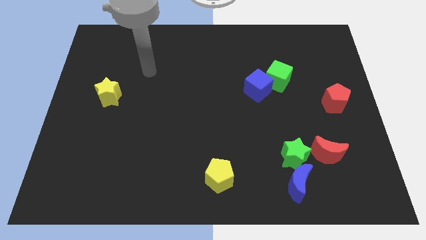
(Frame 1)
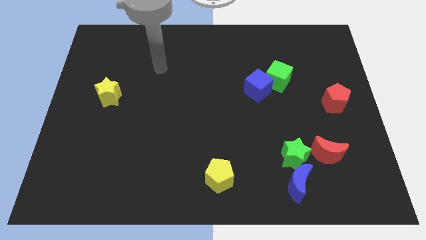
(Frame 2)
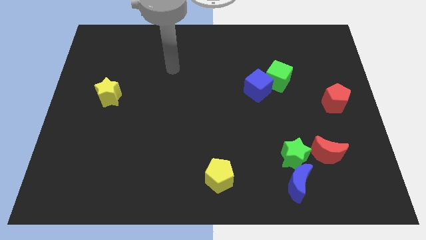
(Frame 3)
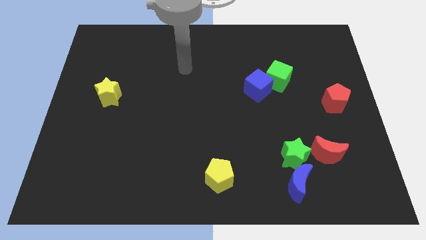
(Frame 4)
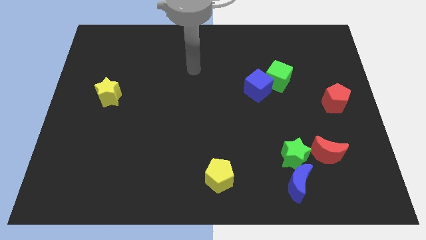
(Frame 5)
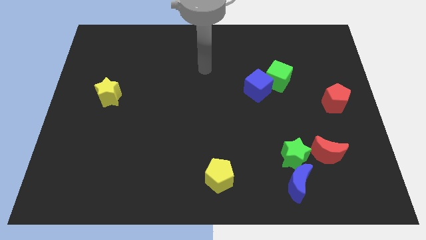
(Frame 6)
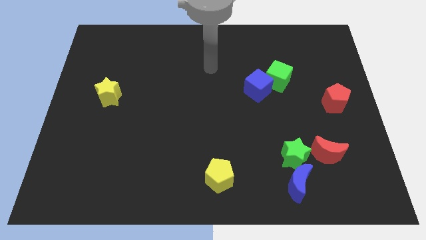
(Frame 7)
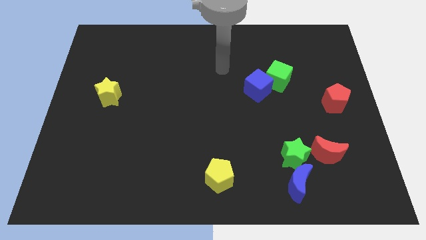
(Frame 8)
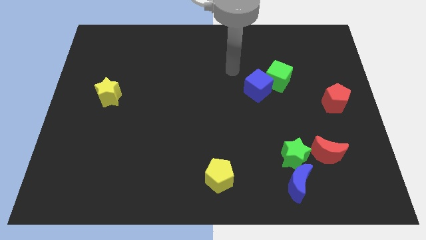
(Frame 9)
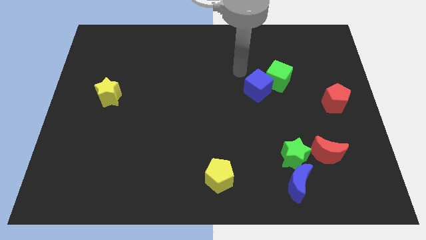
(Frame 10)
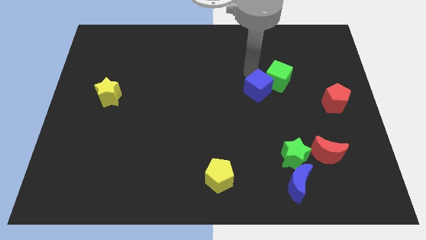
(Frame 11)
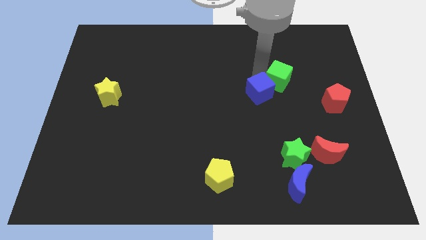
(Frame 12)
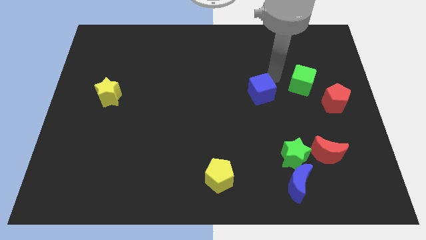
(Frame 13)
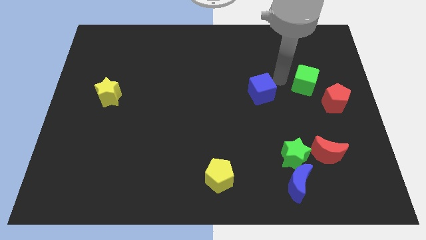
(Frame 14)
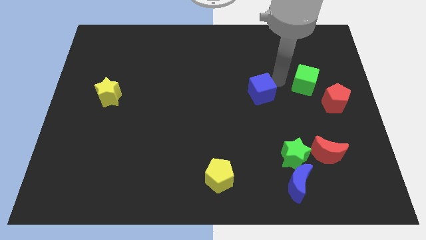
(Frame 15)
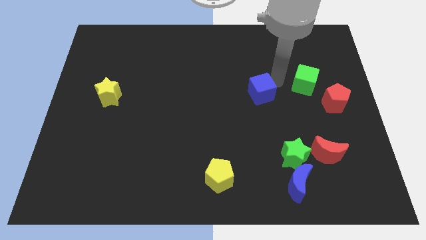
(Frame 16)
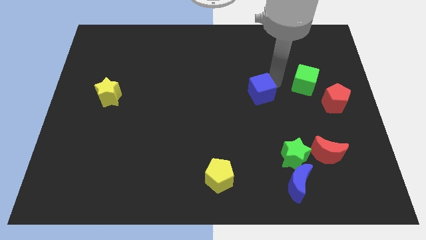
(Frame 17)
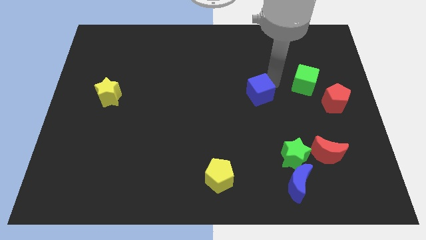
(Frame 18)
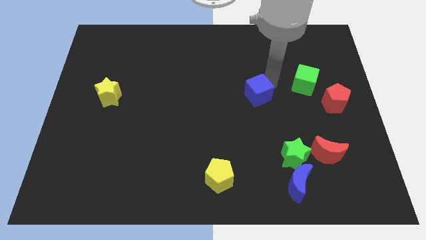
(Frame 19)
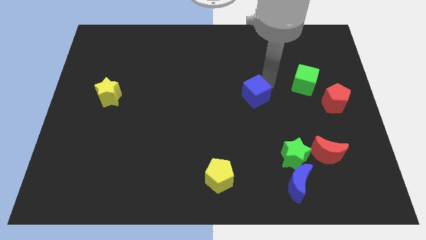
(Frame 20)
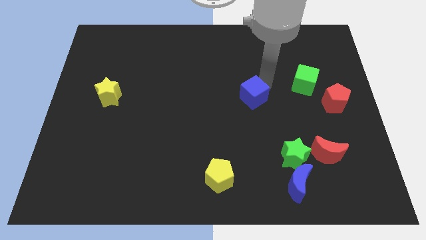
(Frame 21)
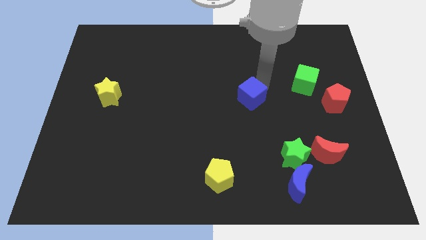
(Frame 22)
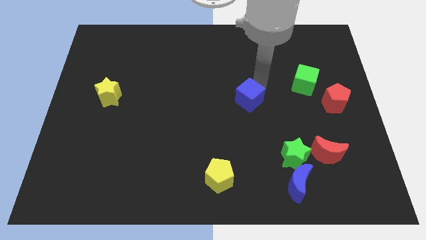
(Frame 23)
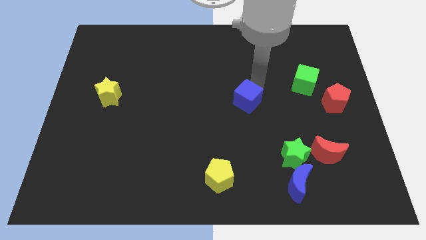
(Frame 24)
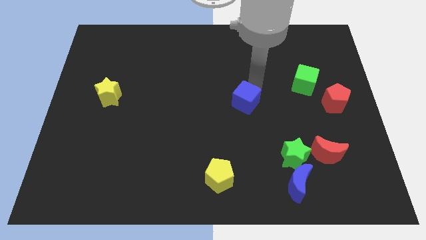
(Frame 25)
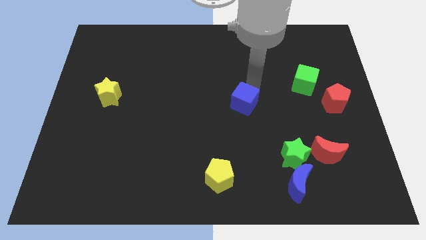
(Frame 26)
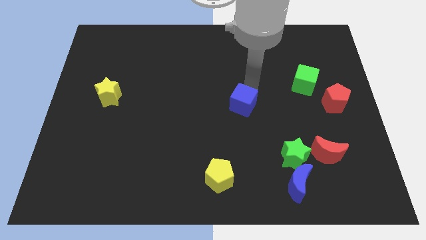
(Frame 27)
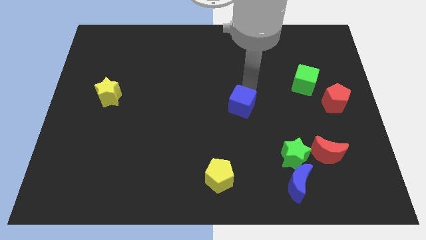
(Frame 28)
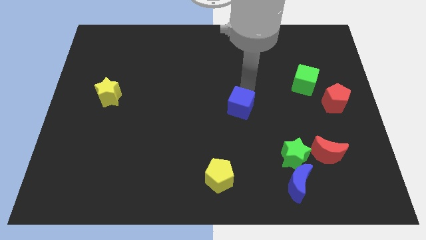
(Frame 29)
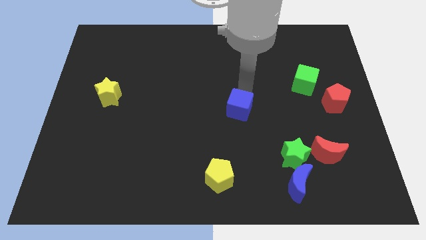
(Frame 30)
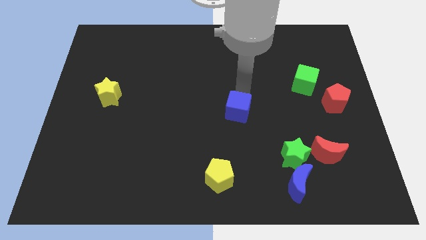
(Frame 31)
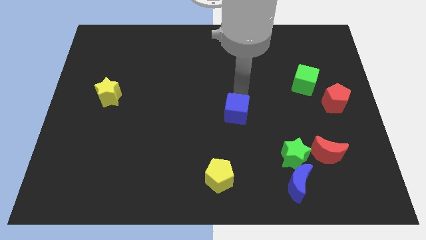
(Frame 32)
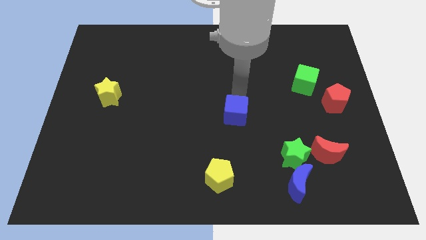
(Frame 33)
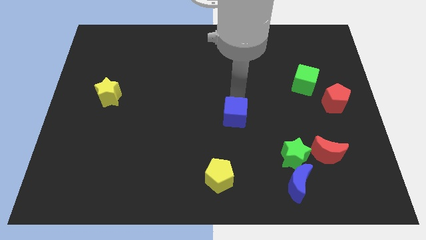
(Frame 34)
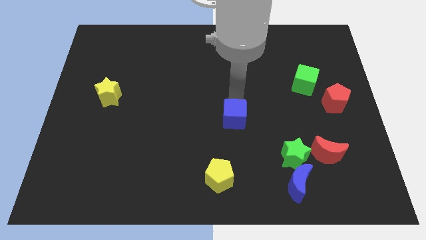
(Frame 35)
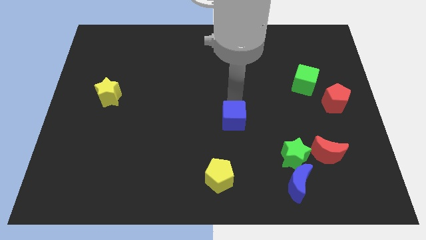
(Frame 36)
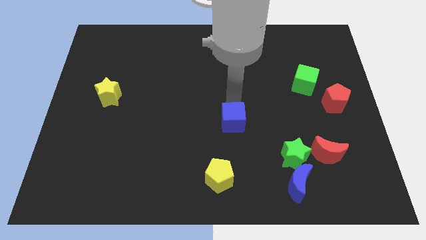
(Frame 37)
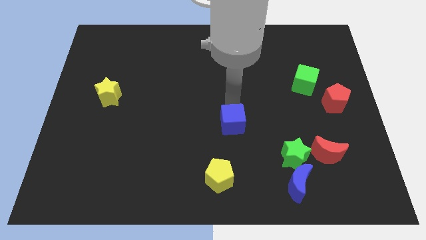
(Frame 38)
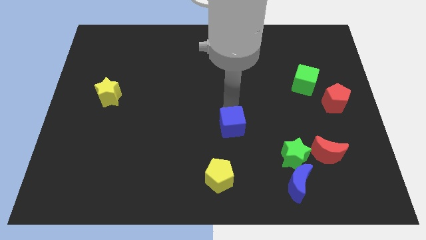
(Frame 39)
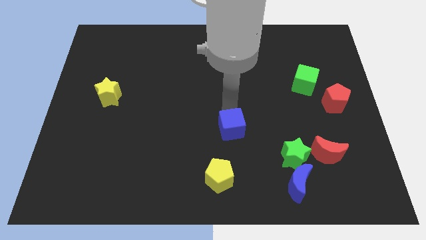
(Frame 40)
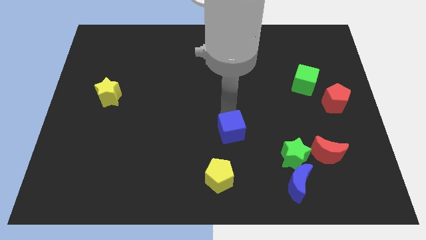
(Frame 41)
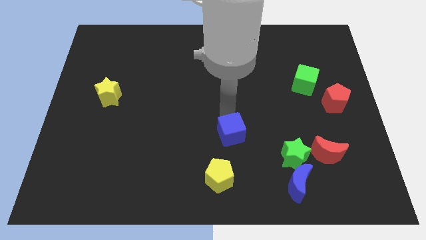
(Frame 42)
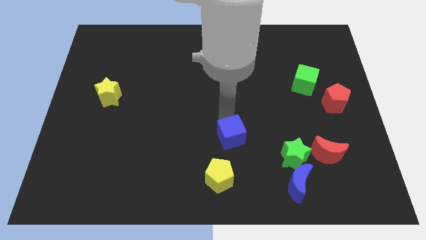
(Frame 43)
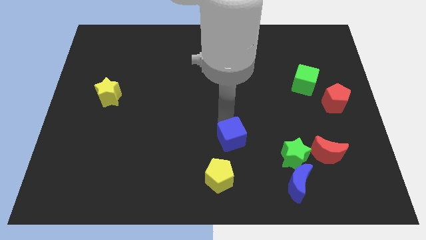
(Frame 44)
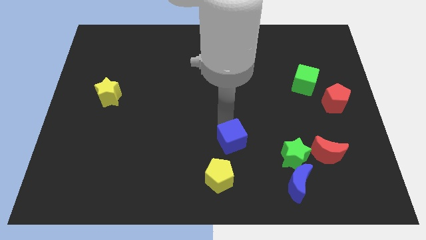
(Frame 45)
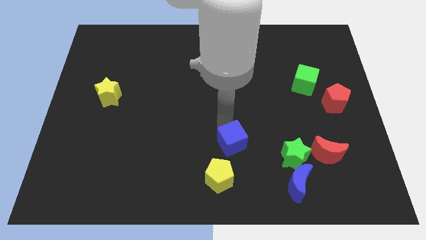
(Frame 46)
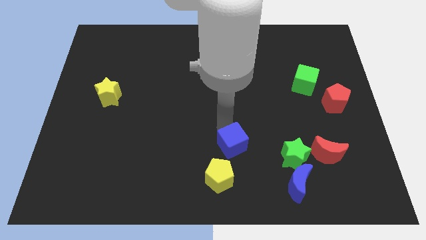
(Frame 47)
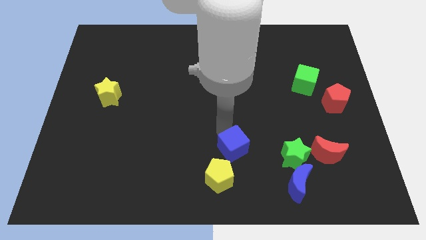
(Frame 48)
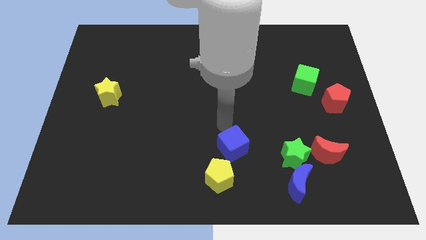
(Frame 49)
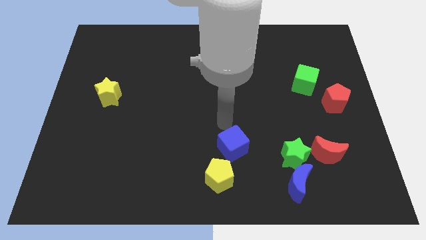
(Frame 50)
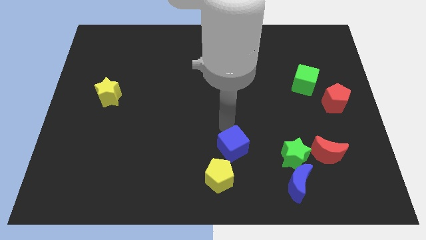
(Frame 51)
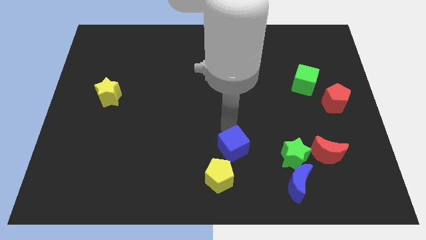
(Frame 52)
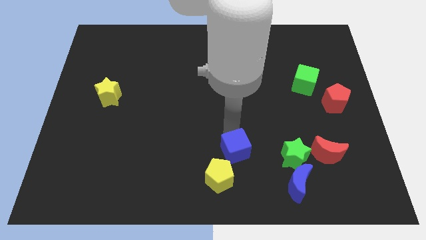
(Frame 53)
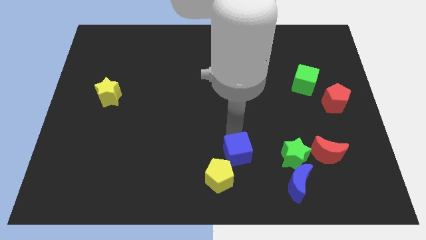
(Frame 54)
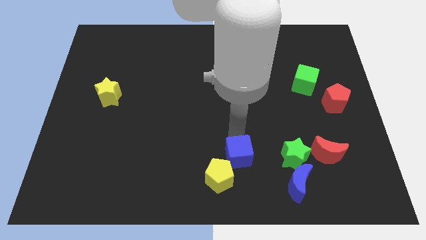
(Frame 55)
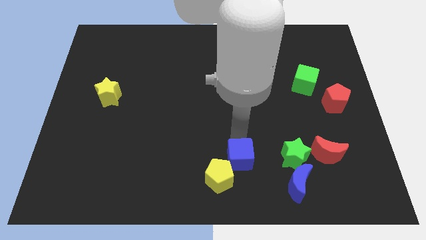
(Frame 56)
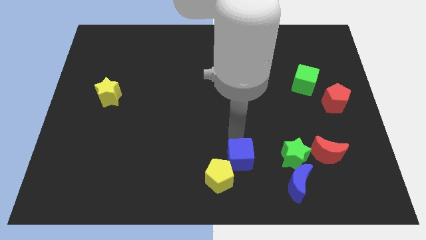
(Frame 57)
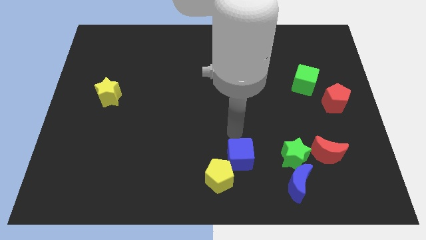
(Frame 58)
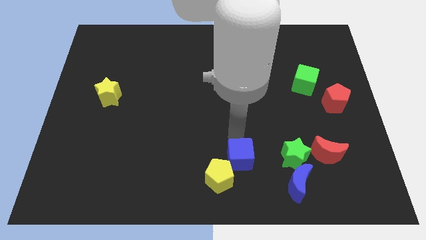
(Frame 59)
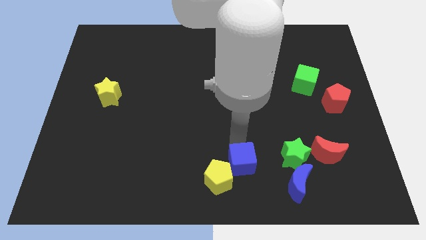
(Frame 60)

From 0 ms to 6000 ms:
push the blue cube left of the blue moon

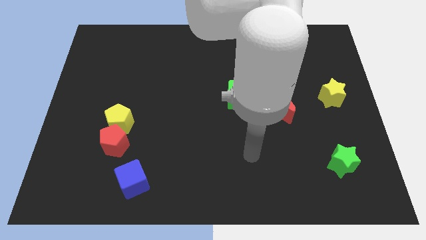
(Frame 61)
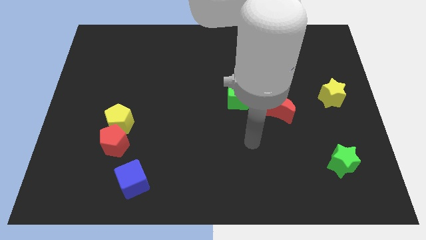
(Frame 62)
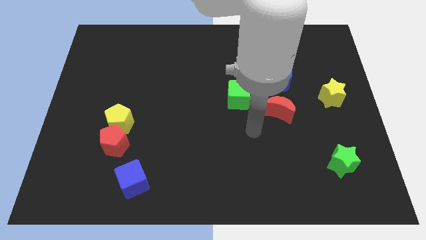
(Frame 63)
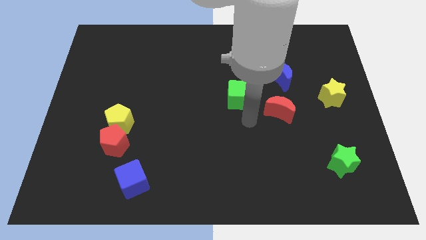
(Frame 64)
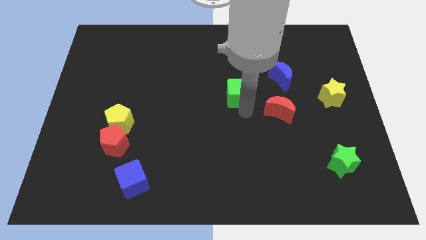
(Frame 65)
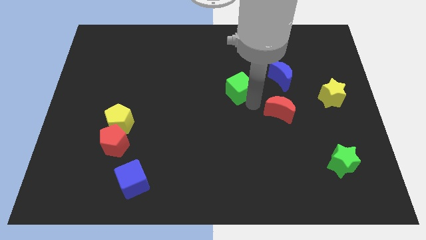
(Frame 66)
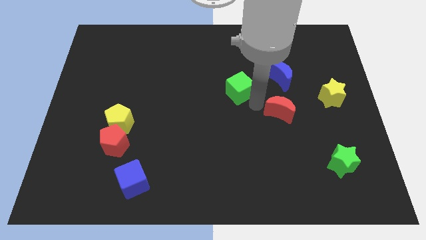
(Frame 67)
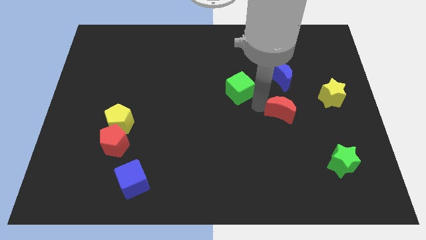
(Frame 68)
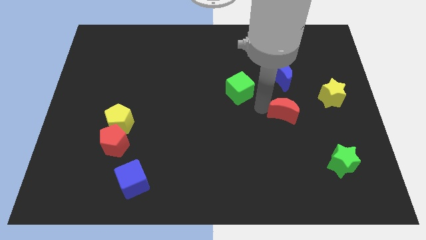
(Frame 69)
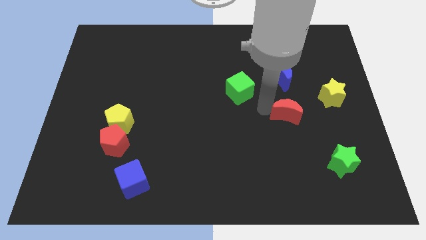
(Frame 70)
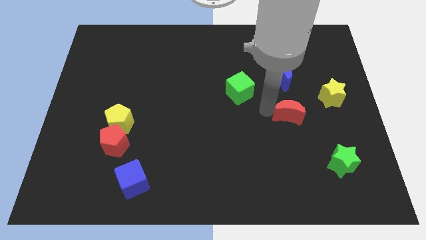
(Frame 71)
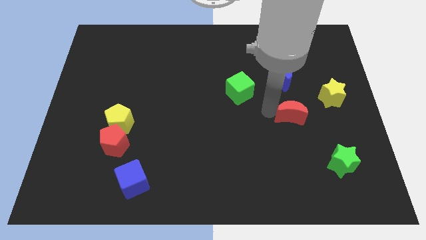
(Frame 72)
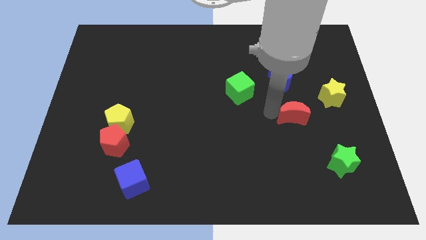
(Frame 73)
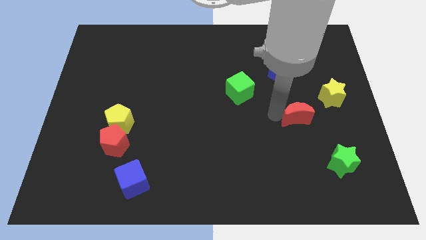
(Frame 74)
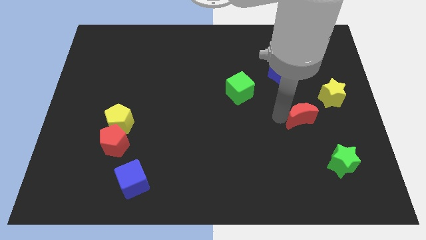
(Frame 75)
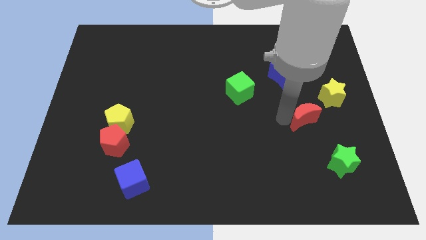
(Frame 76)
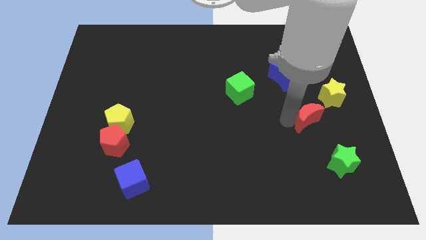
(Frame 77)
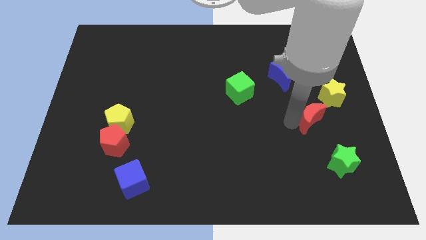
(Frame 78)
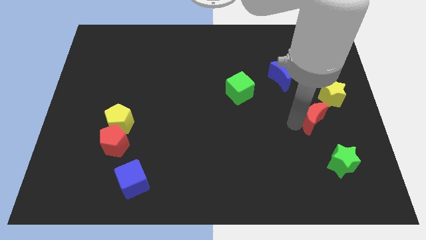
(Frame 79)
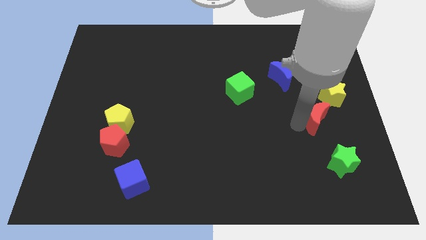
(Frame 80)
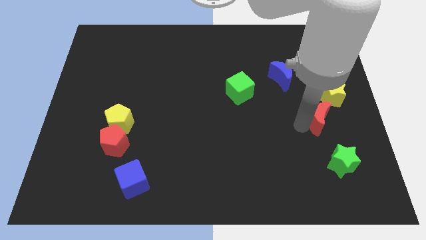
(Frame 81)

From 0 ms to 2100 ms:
put the red moon below the yellow star
